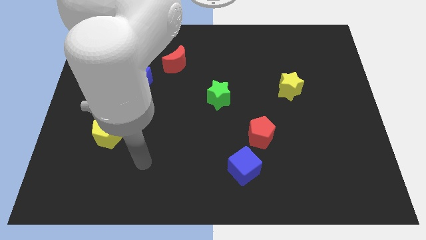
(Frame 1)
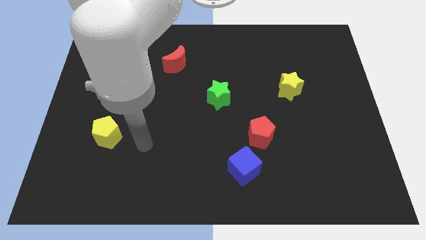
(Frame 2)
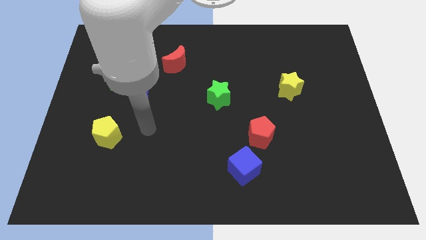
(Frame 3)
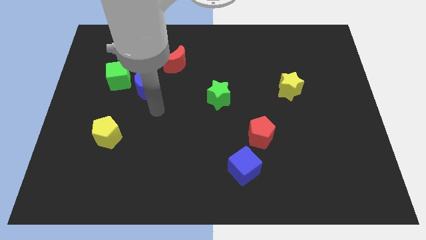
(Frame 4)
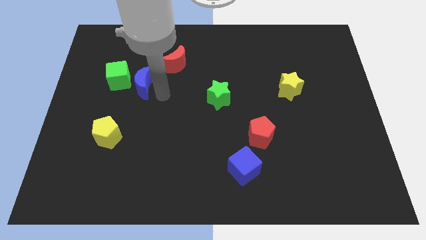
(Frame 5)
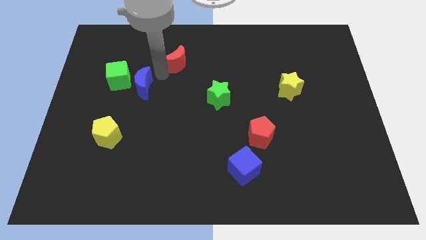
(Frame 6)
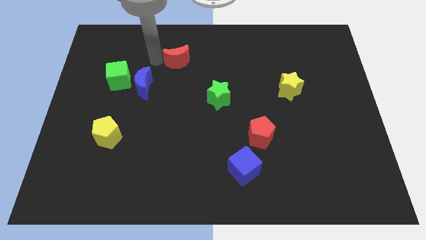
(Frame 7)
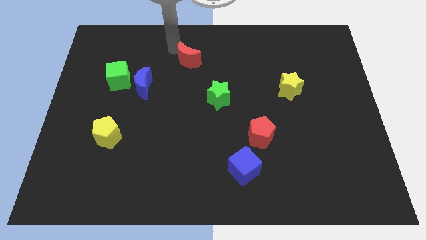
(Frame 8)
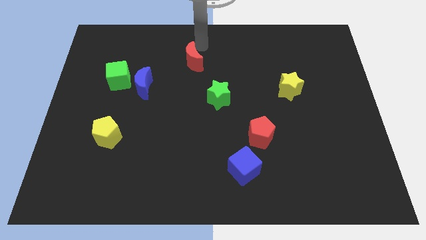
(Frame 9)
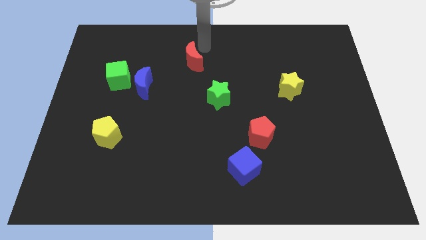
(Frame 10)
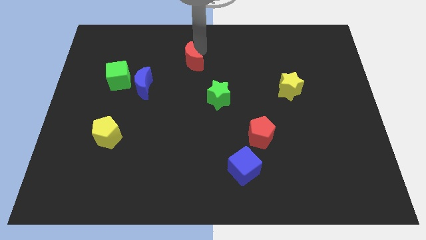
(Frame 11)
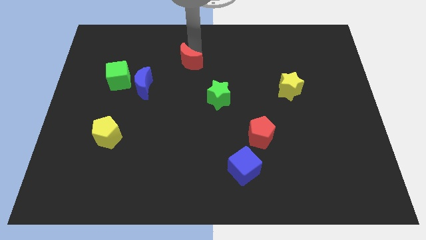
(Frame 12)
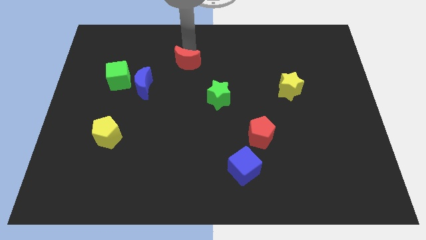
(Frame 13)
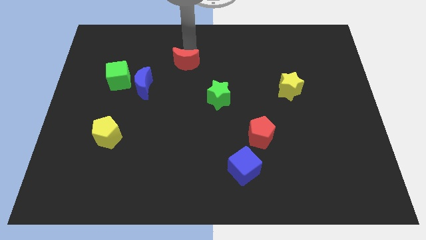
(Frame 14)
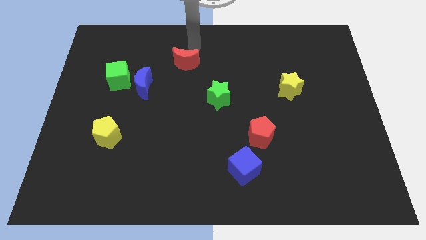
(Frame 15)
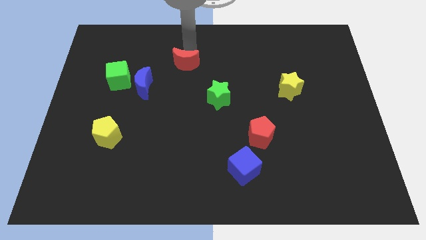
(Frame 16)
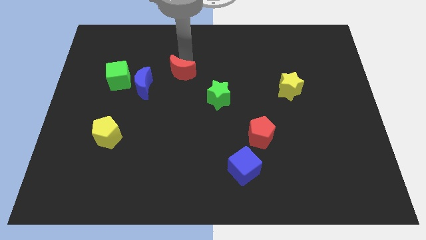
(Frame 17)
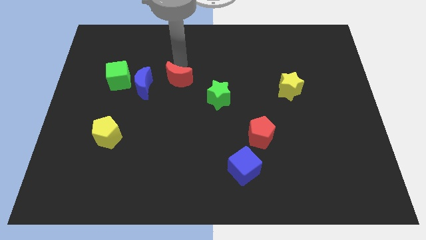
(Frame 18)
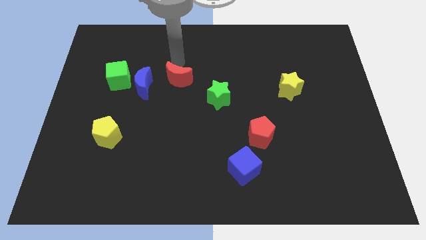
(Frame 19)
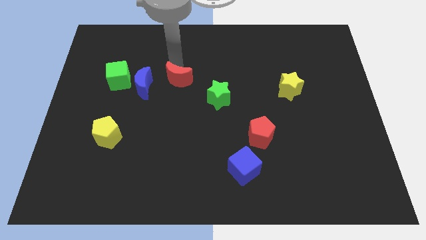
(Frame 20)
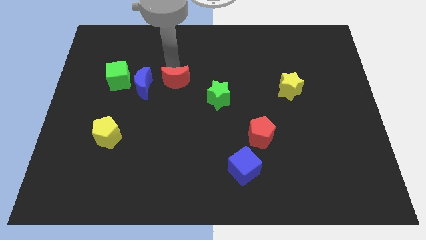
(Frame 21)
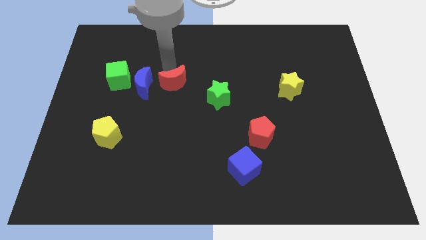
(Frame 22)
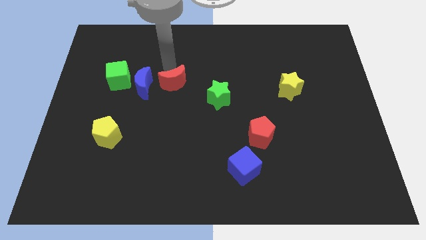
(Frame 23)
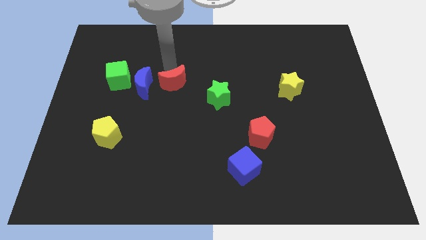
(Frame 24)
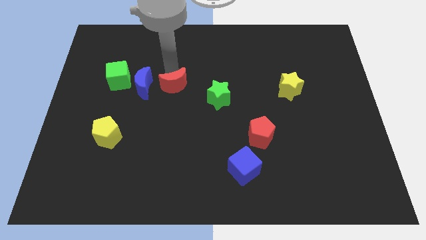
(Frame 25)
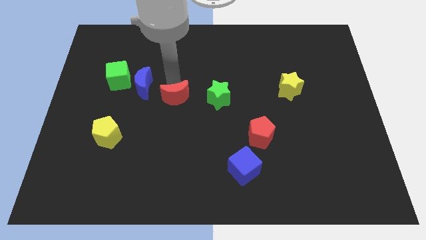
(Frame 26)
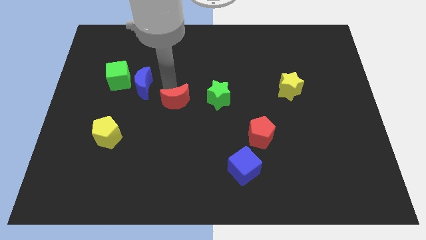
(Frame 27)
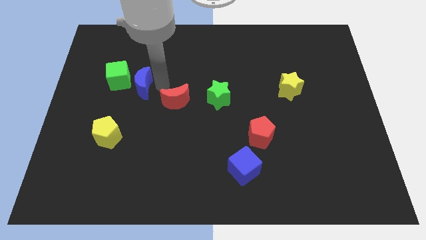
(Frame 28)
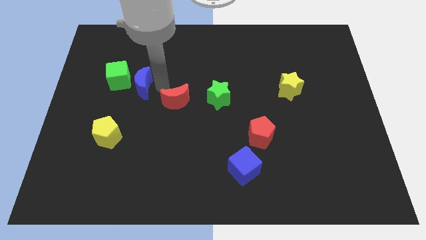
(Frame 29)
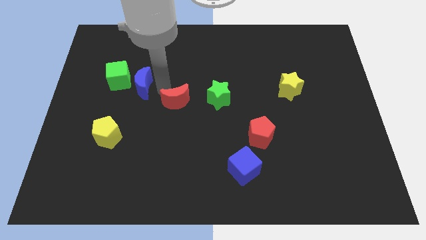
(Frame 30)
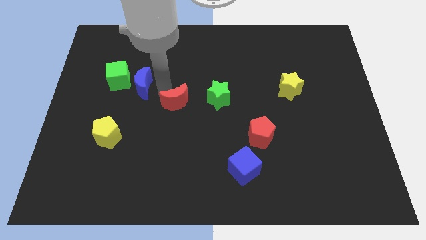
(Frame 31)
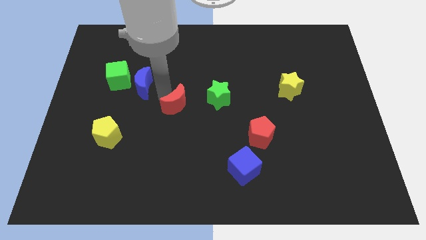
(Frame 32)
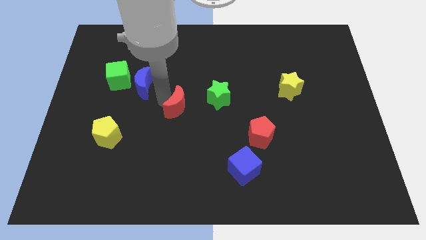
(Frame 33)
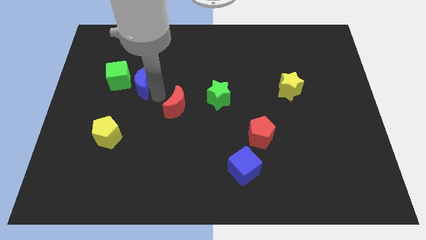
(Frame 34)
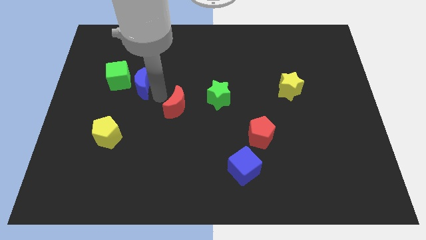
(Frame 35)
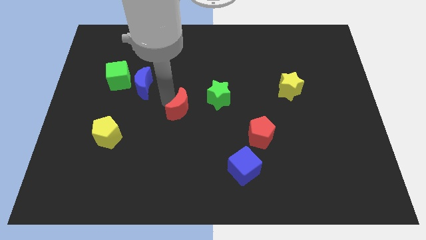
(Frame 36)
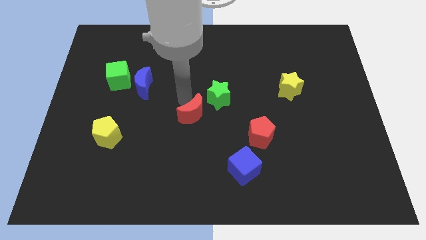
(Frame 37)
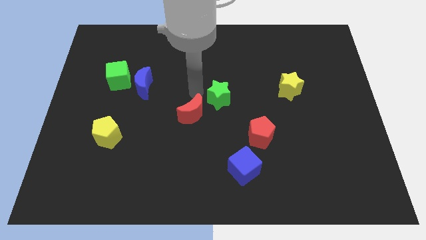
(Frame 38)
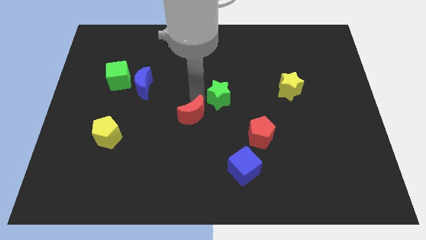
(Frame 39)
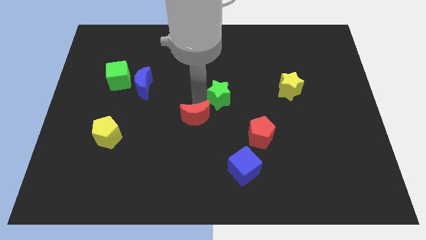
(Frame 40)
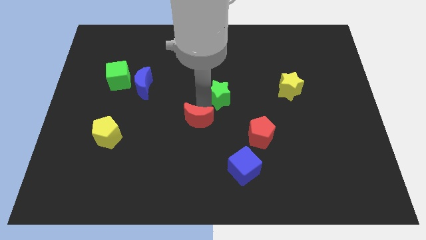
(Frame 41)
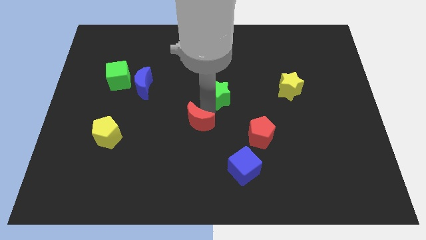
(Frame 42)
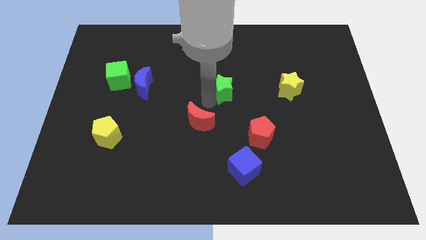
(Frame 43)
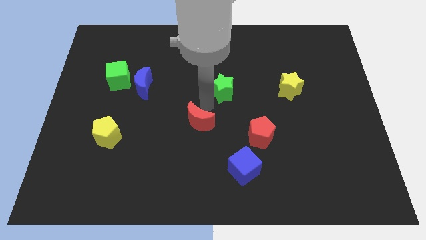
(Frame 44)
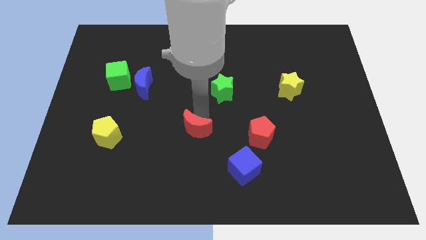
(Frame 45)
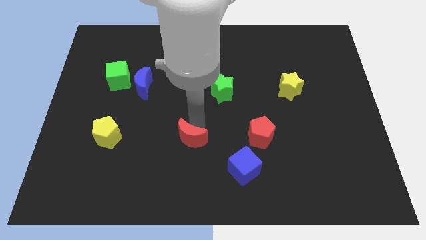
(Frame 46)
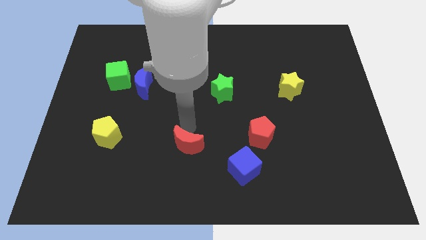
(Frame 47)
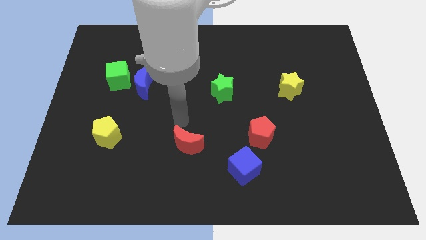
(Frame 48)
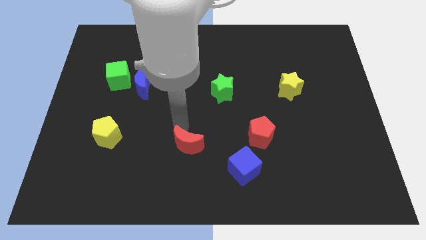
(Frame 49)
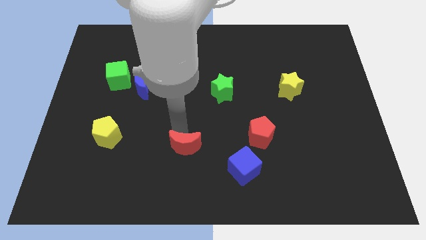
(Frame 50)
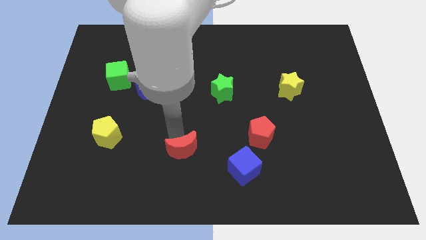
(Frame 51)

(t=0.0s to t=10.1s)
put the red moon to the left of the blue cube

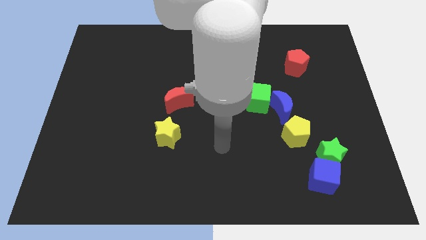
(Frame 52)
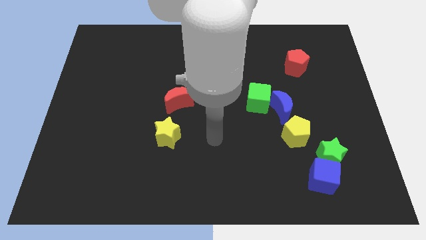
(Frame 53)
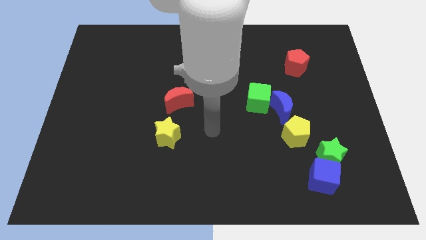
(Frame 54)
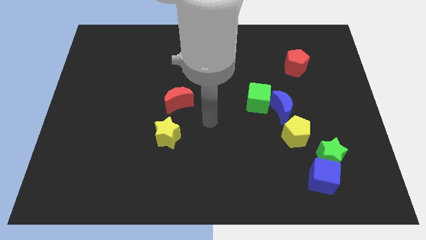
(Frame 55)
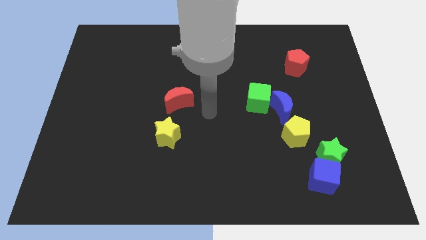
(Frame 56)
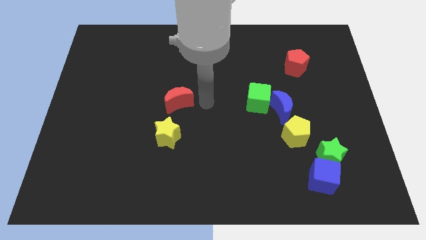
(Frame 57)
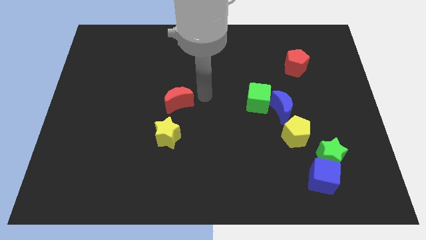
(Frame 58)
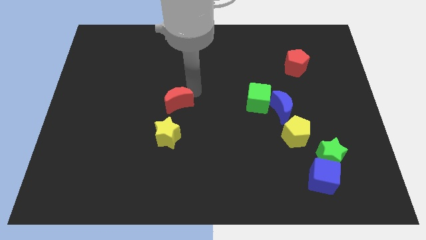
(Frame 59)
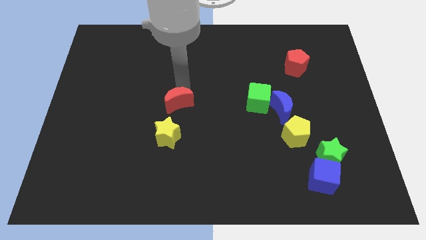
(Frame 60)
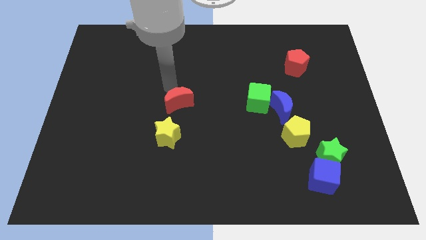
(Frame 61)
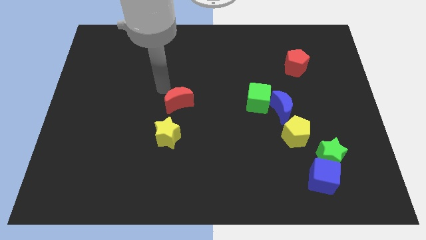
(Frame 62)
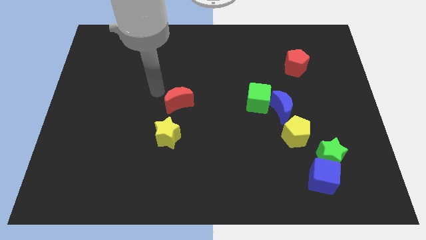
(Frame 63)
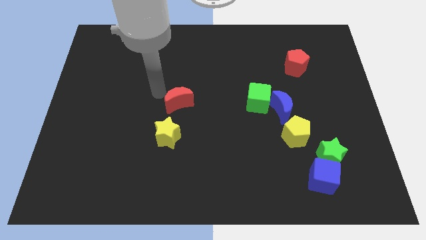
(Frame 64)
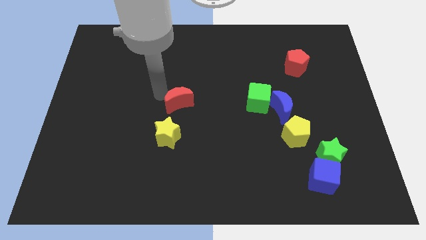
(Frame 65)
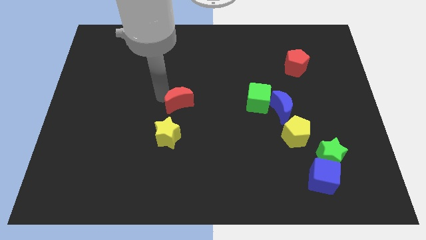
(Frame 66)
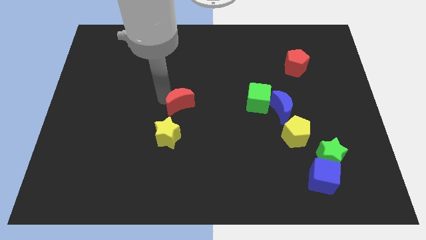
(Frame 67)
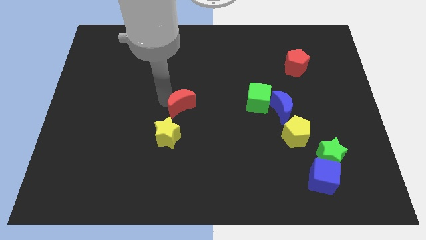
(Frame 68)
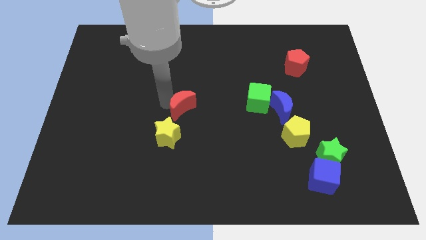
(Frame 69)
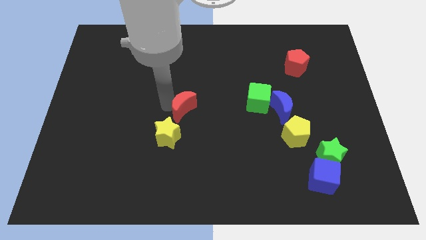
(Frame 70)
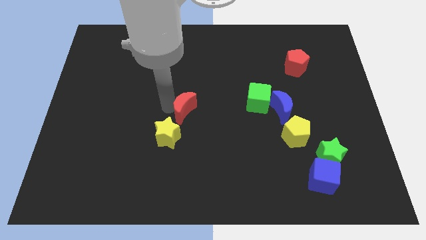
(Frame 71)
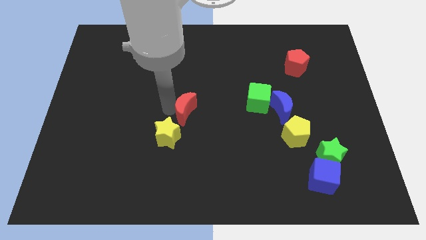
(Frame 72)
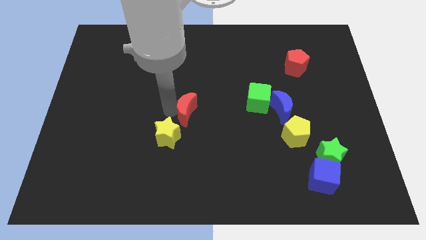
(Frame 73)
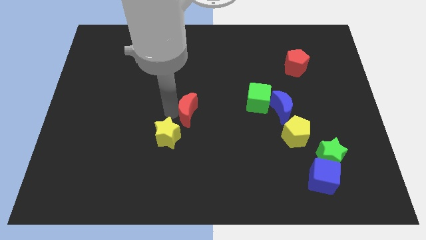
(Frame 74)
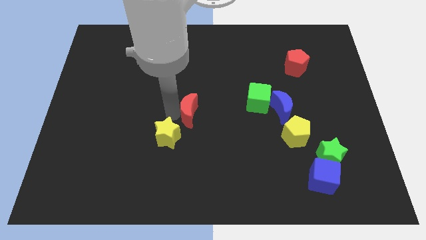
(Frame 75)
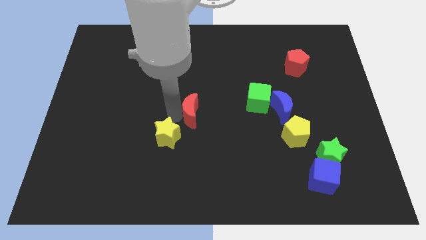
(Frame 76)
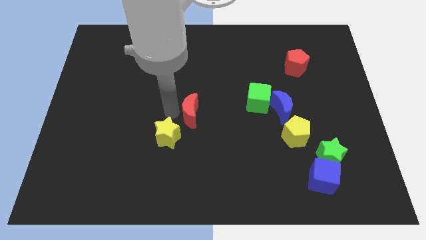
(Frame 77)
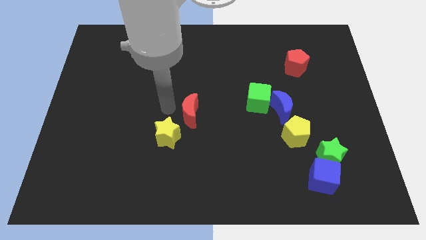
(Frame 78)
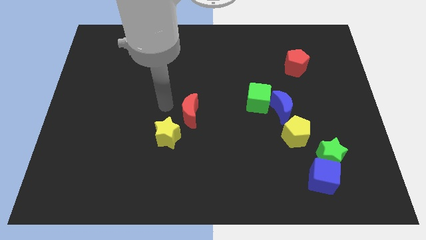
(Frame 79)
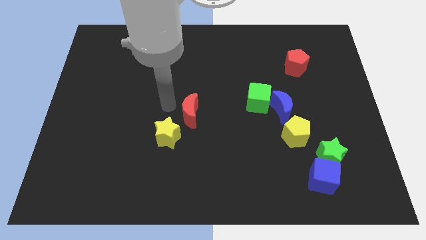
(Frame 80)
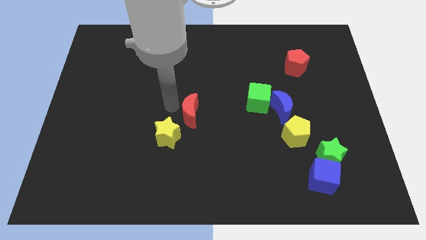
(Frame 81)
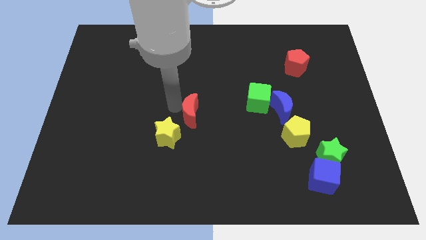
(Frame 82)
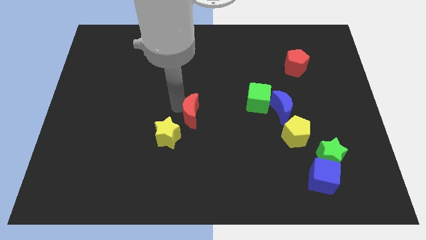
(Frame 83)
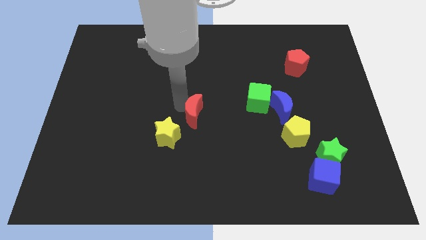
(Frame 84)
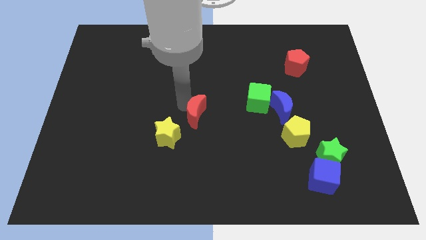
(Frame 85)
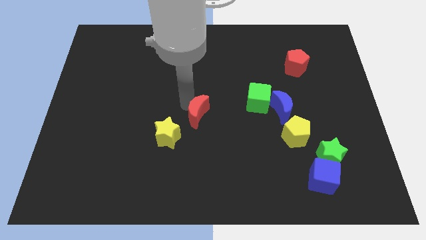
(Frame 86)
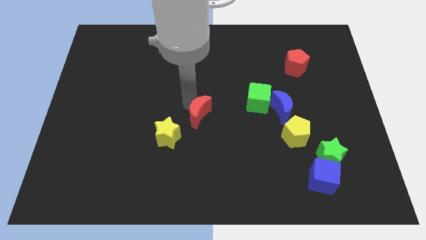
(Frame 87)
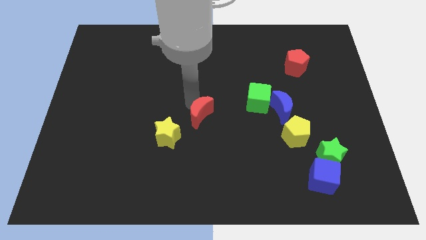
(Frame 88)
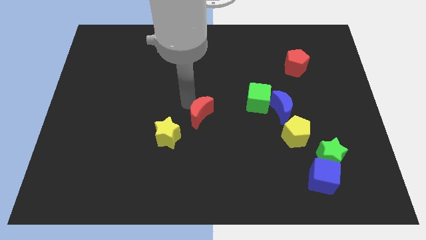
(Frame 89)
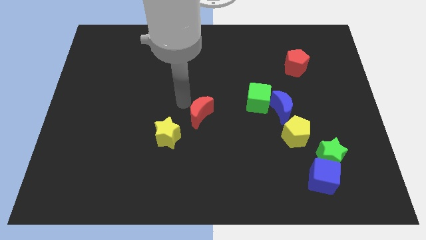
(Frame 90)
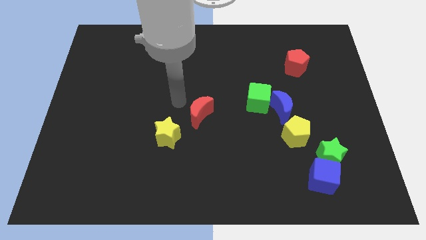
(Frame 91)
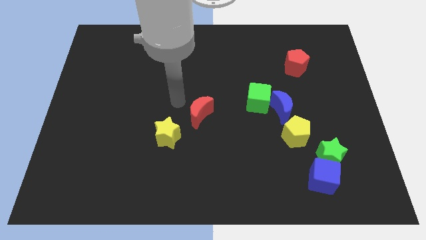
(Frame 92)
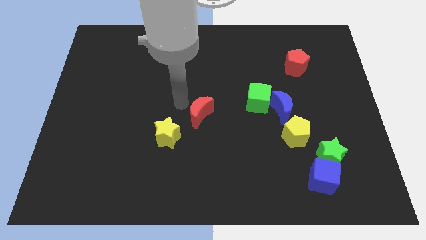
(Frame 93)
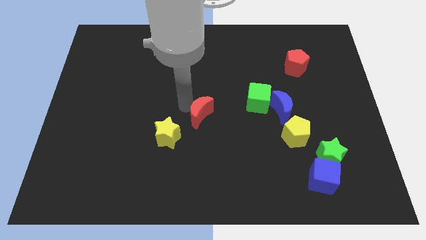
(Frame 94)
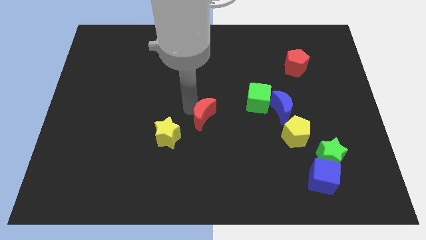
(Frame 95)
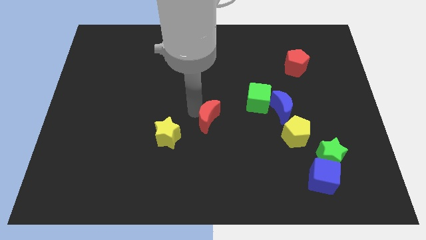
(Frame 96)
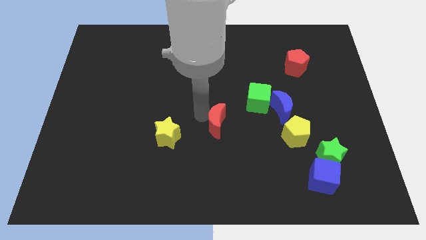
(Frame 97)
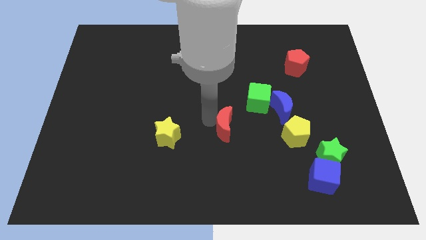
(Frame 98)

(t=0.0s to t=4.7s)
push the red moon to the left side of the yellow pentagon
